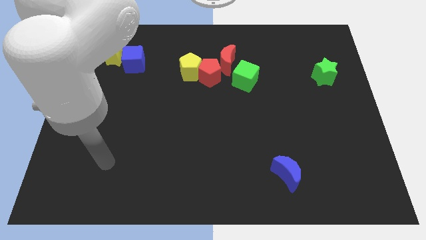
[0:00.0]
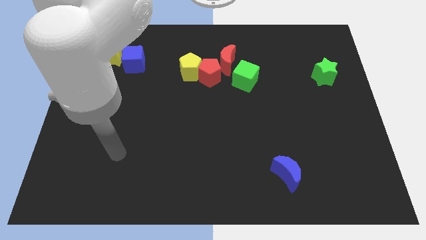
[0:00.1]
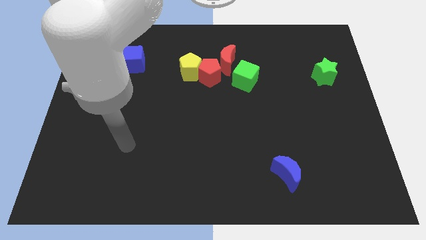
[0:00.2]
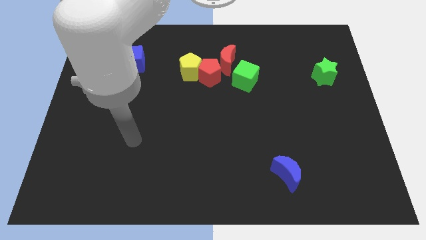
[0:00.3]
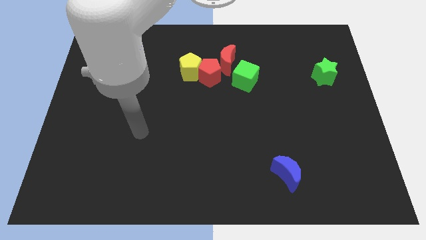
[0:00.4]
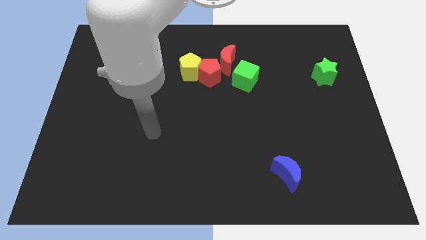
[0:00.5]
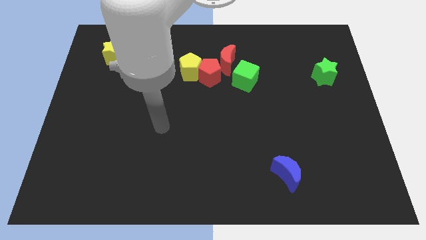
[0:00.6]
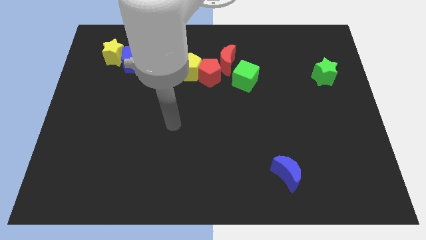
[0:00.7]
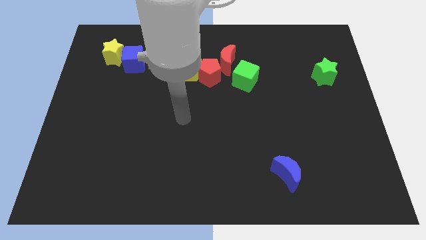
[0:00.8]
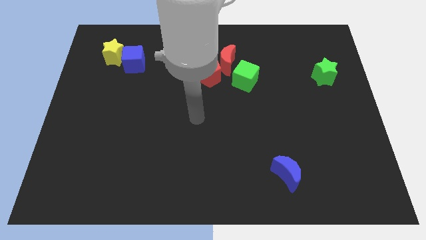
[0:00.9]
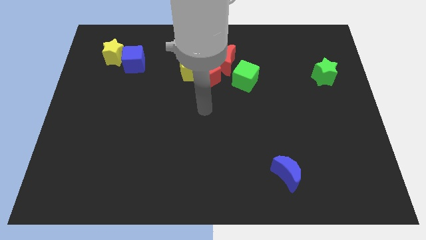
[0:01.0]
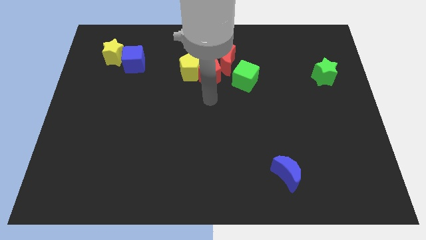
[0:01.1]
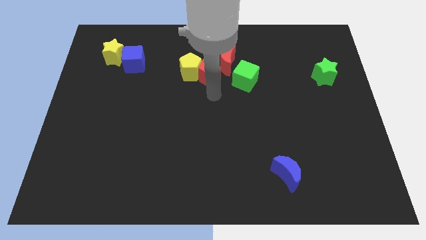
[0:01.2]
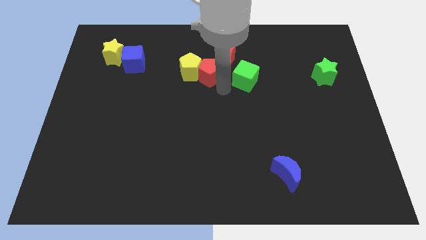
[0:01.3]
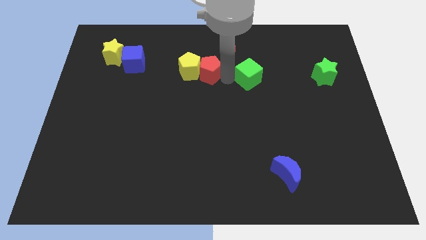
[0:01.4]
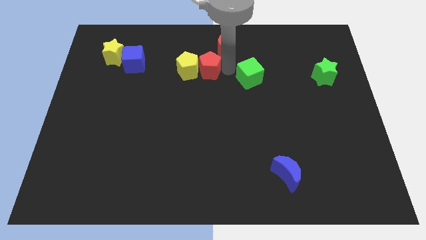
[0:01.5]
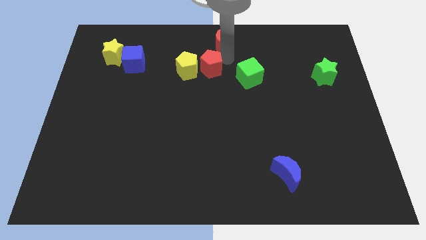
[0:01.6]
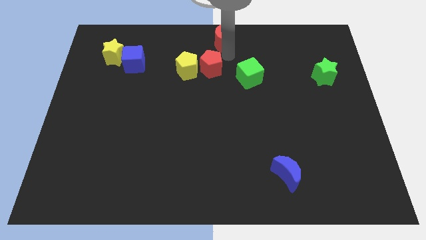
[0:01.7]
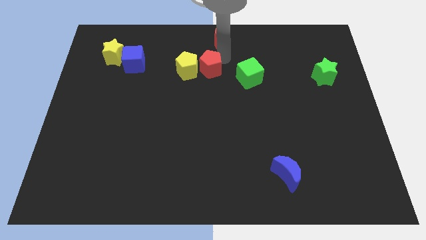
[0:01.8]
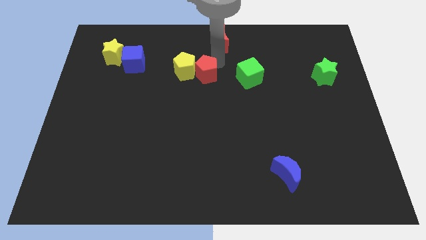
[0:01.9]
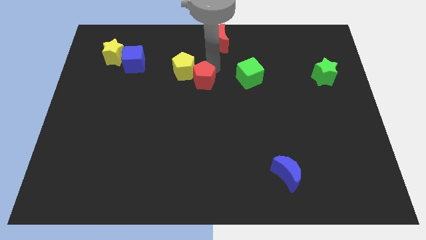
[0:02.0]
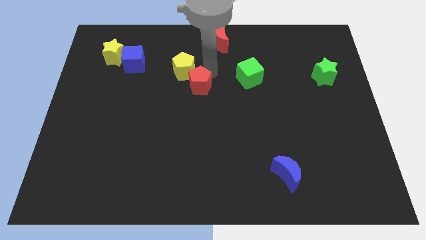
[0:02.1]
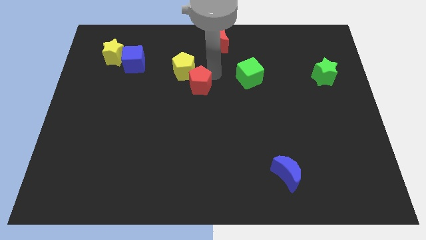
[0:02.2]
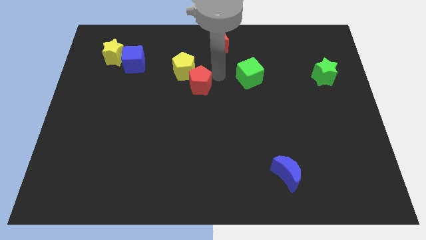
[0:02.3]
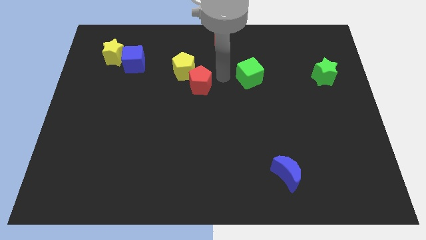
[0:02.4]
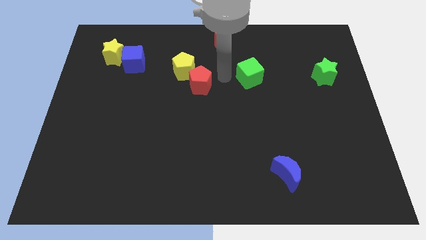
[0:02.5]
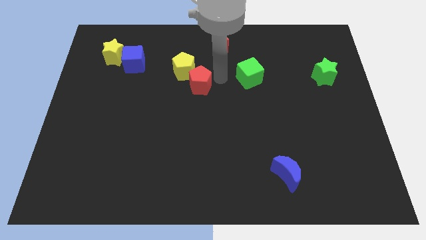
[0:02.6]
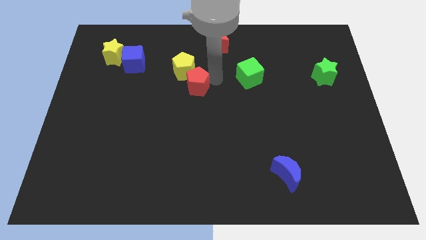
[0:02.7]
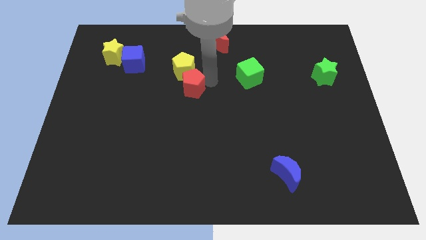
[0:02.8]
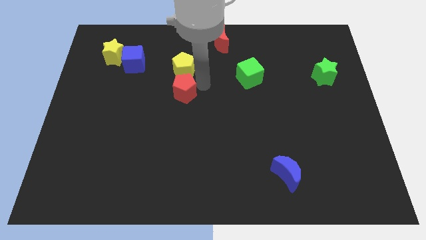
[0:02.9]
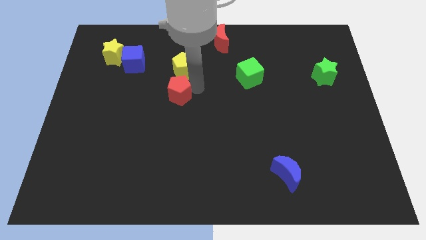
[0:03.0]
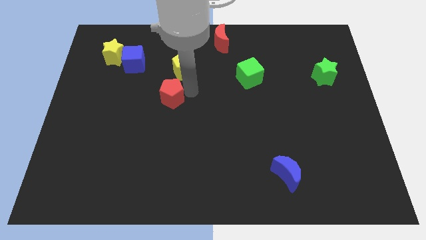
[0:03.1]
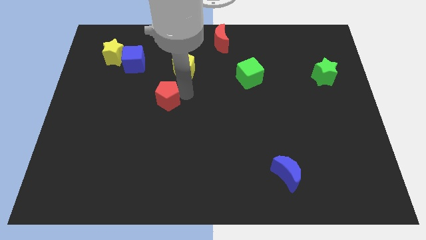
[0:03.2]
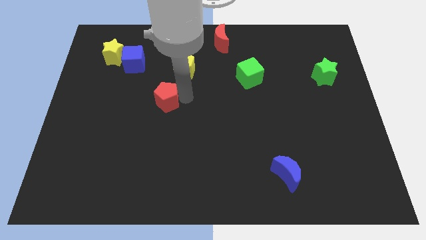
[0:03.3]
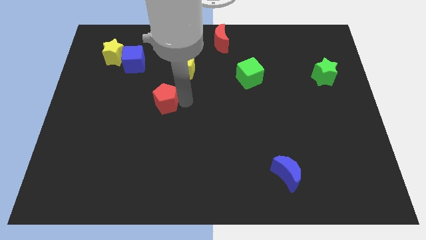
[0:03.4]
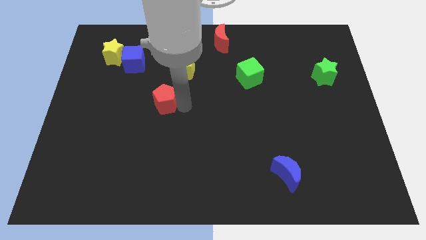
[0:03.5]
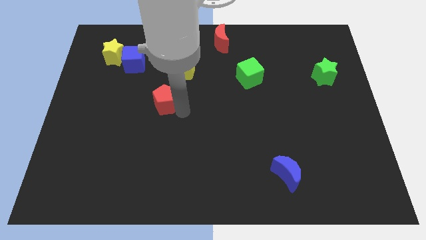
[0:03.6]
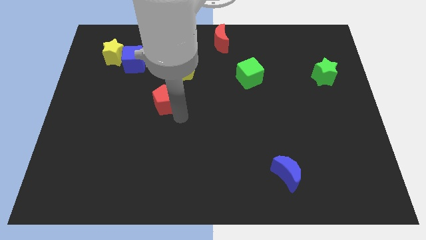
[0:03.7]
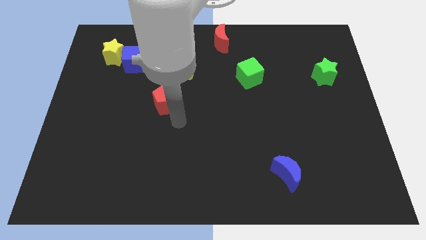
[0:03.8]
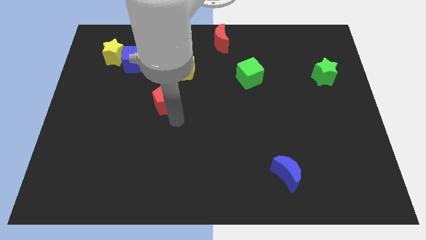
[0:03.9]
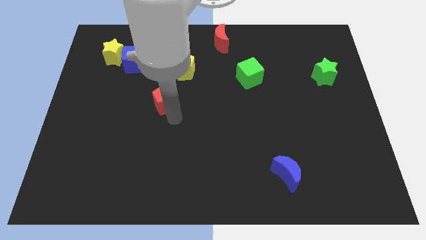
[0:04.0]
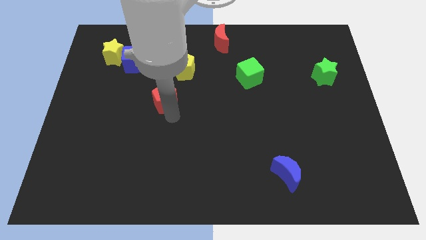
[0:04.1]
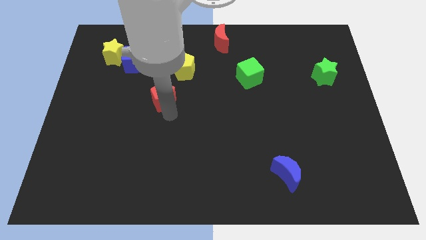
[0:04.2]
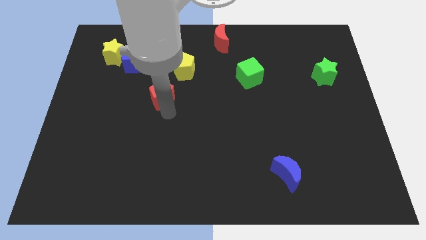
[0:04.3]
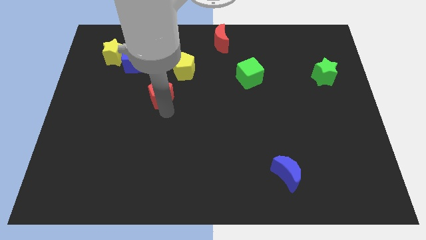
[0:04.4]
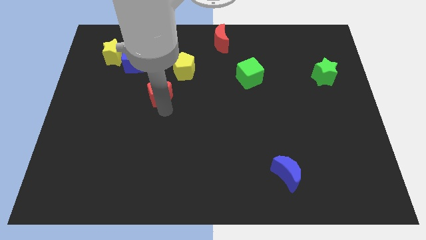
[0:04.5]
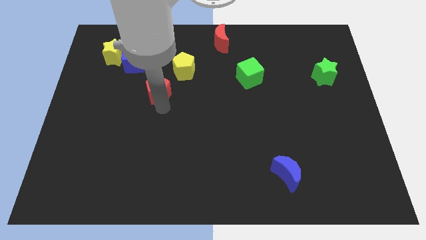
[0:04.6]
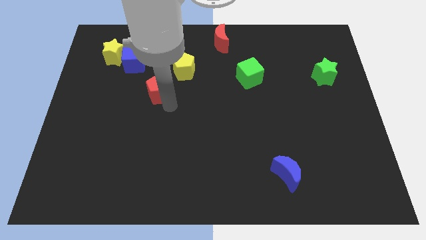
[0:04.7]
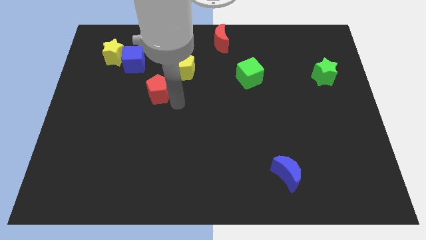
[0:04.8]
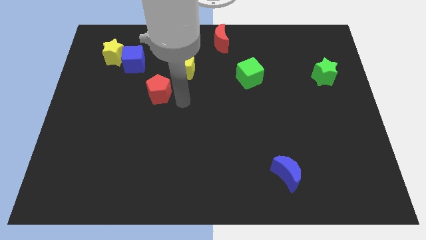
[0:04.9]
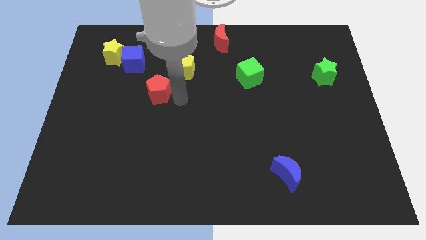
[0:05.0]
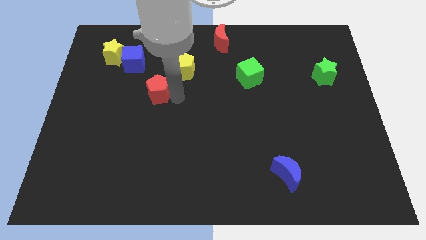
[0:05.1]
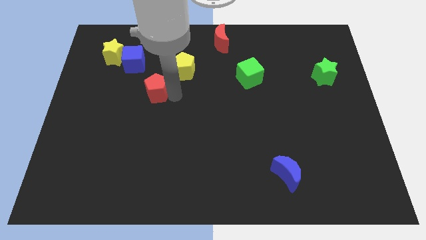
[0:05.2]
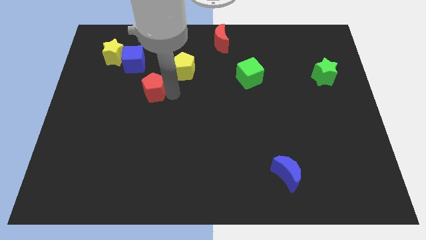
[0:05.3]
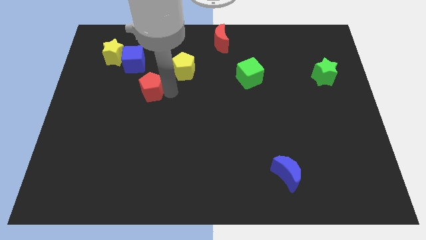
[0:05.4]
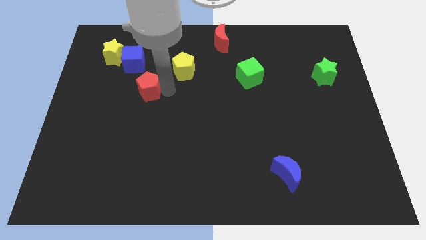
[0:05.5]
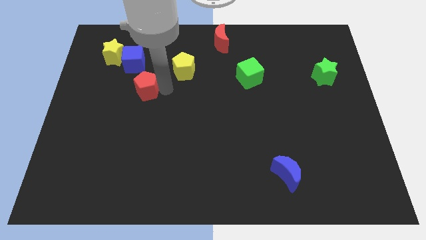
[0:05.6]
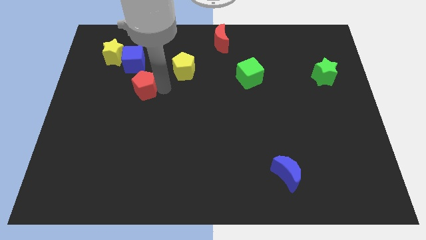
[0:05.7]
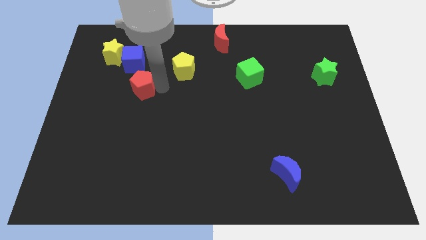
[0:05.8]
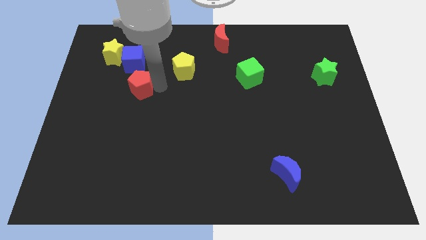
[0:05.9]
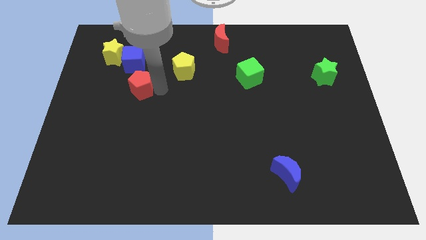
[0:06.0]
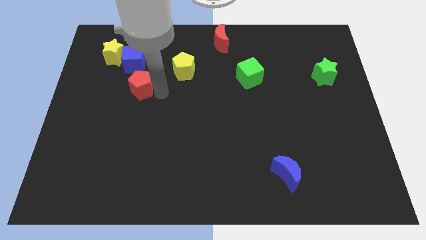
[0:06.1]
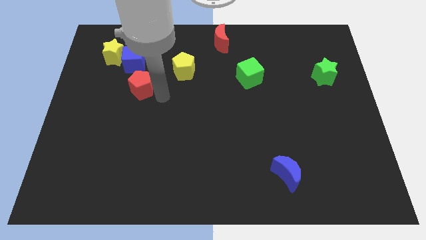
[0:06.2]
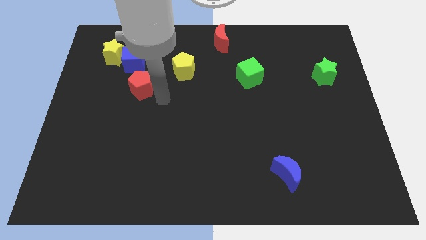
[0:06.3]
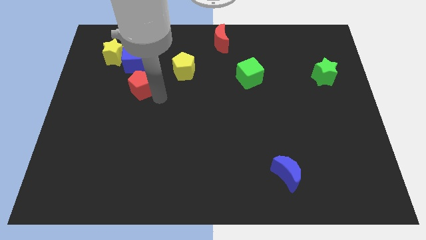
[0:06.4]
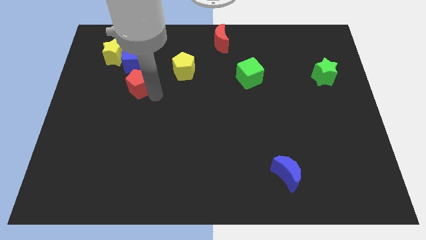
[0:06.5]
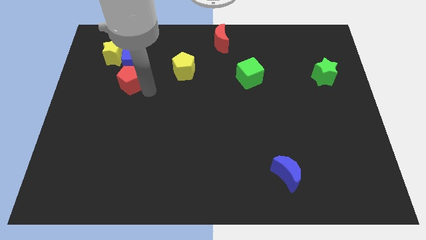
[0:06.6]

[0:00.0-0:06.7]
move the red pentagon diagonally down and to the left of the blue cube
